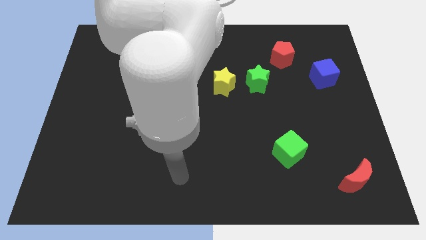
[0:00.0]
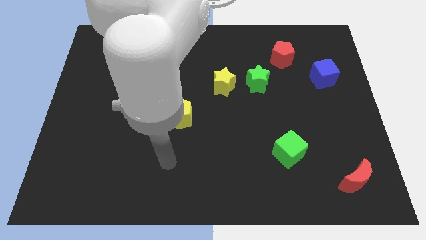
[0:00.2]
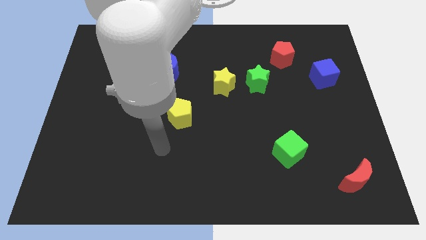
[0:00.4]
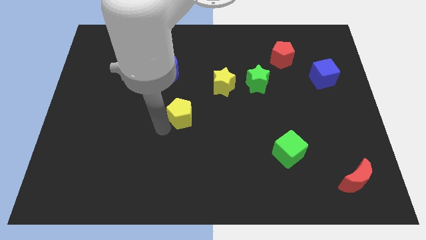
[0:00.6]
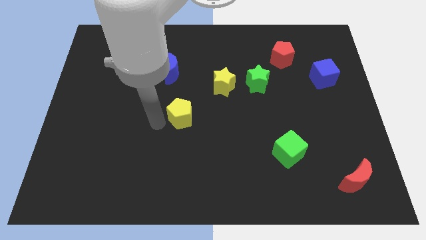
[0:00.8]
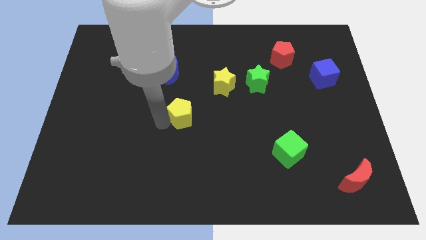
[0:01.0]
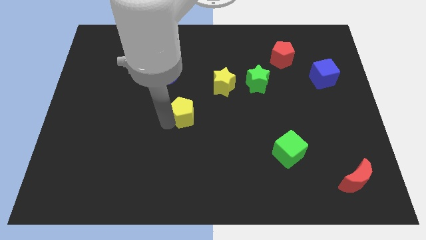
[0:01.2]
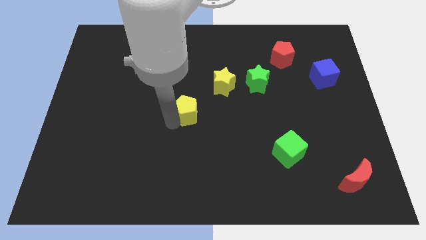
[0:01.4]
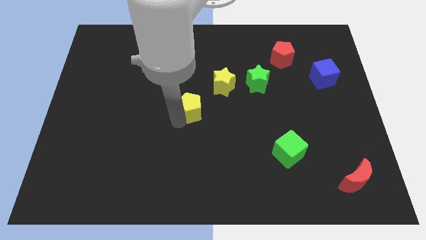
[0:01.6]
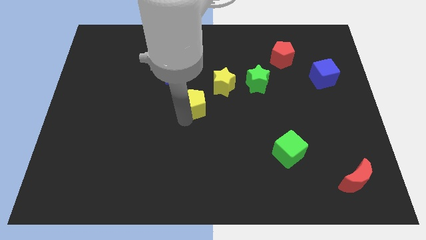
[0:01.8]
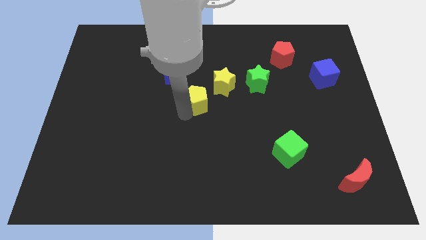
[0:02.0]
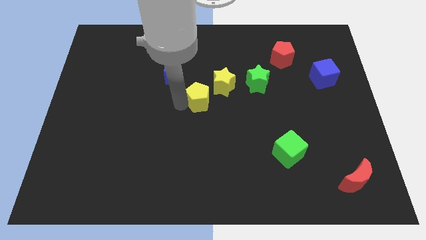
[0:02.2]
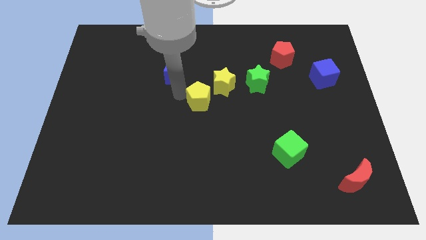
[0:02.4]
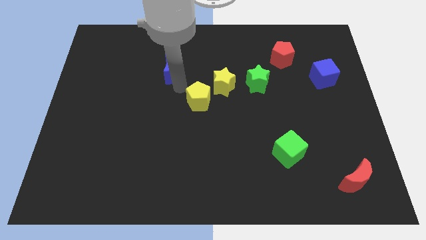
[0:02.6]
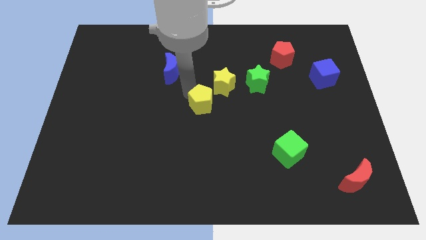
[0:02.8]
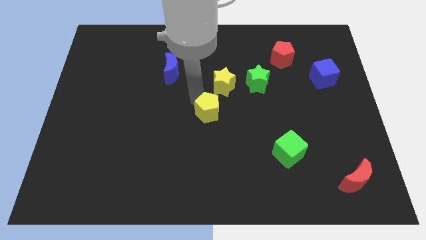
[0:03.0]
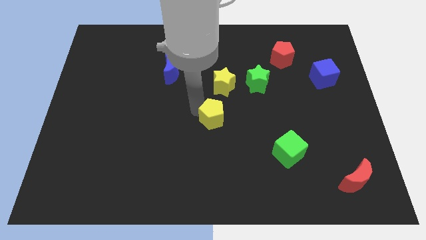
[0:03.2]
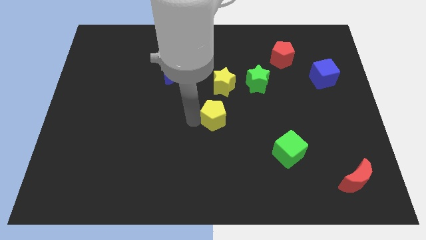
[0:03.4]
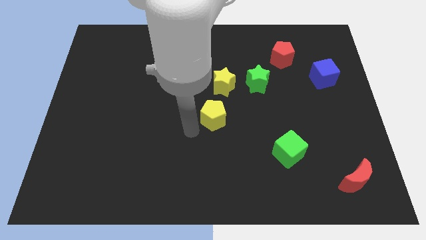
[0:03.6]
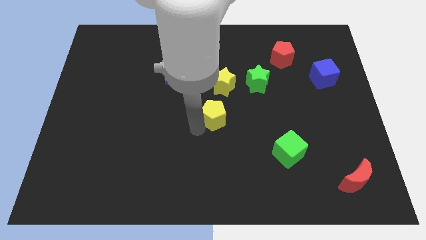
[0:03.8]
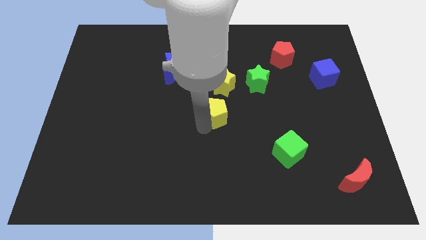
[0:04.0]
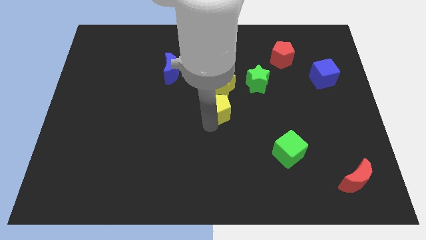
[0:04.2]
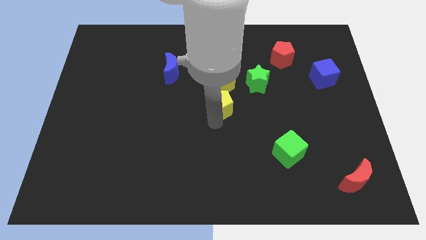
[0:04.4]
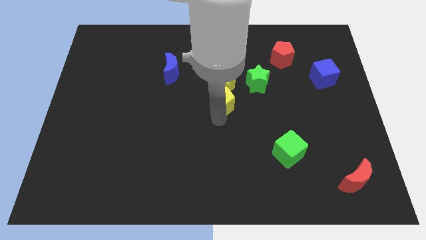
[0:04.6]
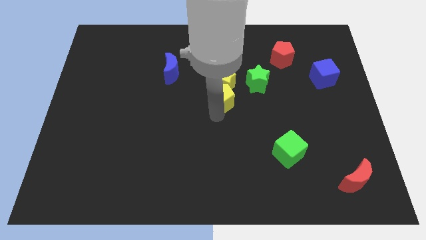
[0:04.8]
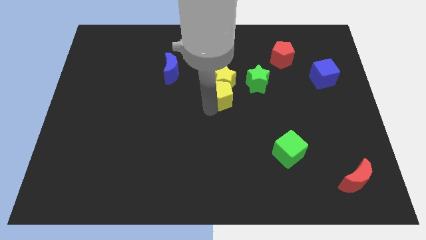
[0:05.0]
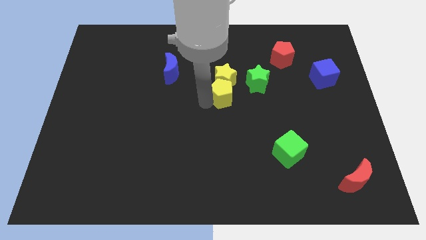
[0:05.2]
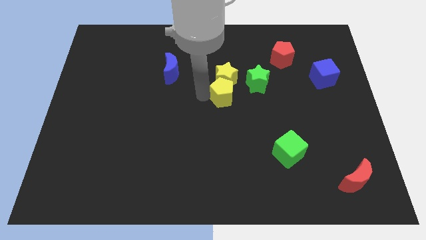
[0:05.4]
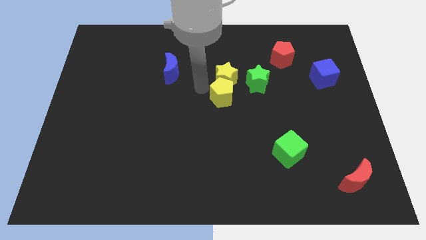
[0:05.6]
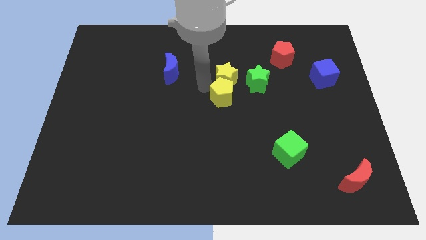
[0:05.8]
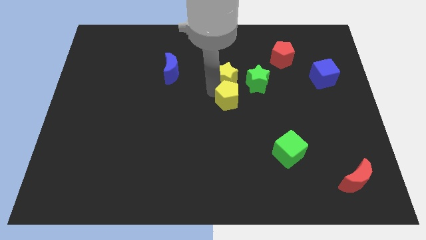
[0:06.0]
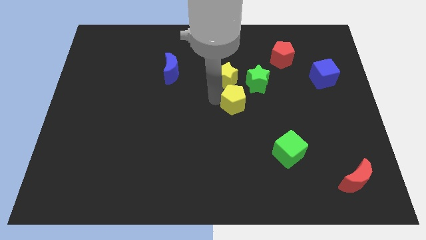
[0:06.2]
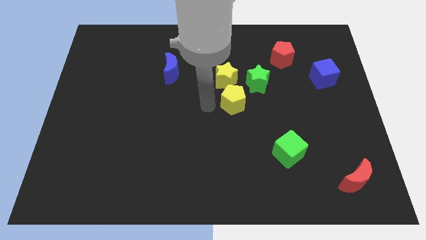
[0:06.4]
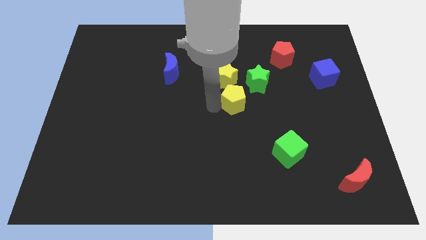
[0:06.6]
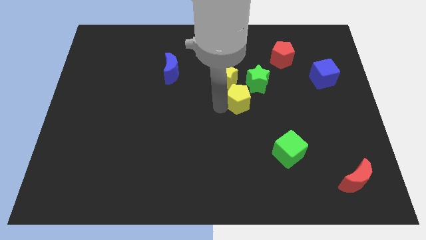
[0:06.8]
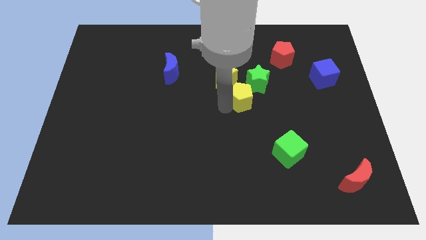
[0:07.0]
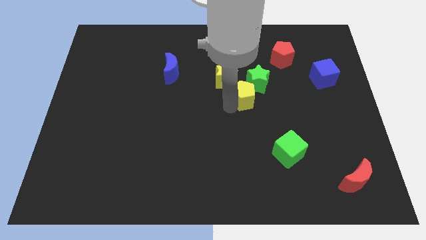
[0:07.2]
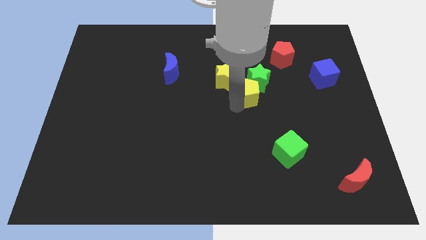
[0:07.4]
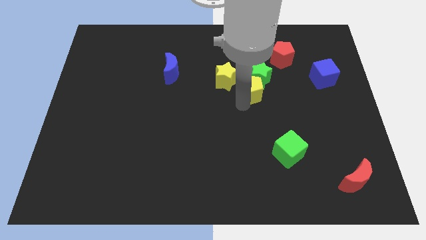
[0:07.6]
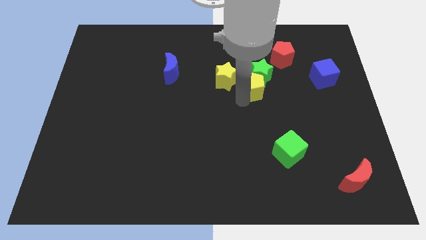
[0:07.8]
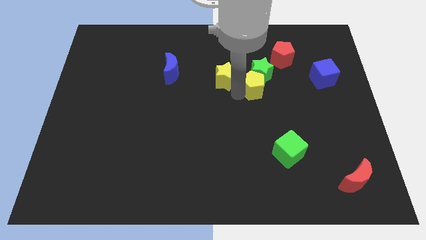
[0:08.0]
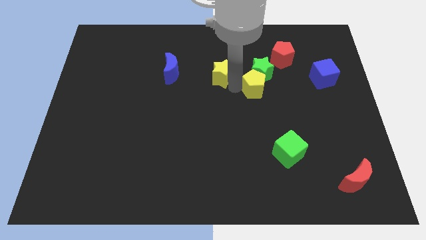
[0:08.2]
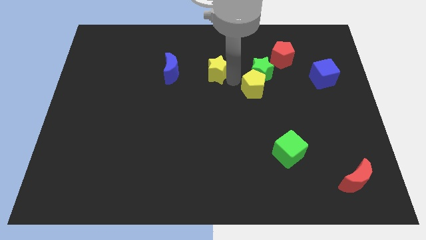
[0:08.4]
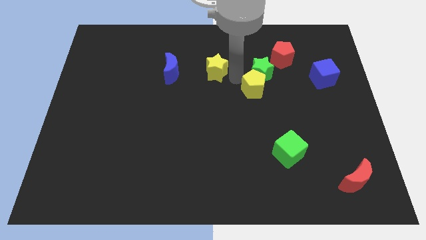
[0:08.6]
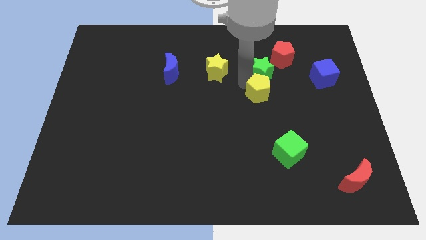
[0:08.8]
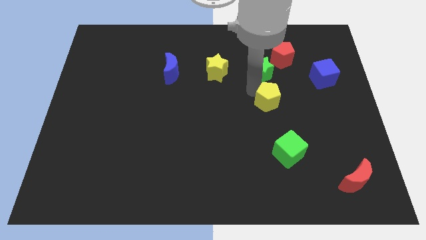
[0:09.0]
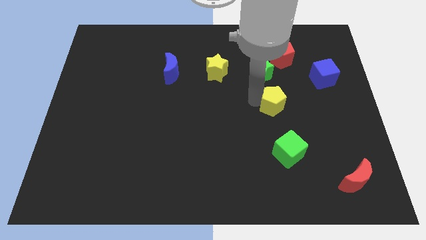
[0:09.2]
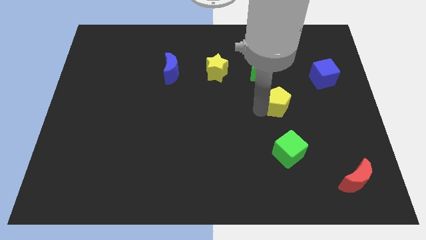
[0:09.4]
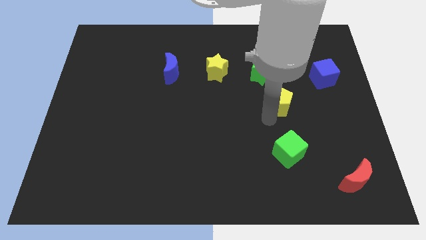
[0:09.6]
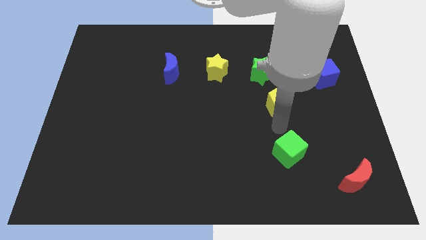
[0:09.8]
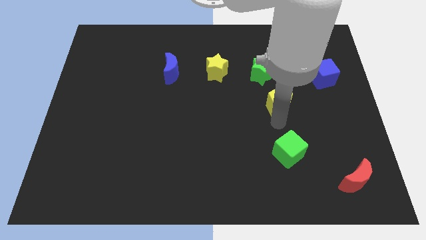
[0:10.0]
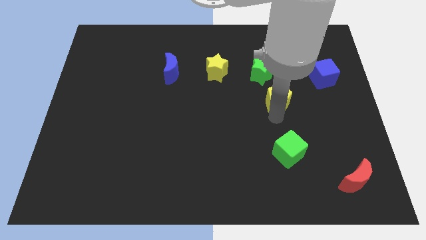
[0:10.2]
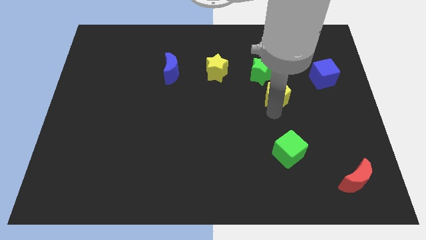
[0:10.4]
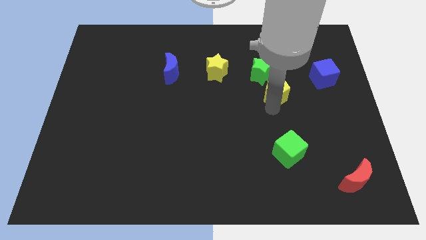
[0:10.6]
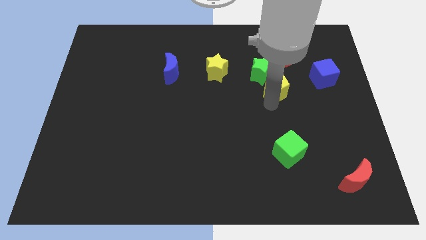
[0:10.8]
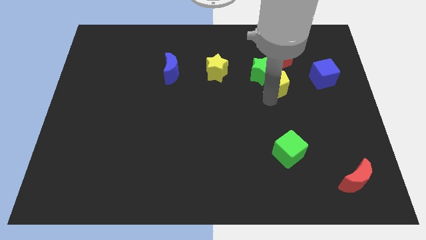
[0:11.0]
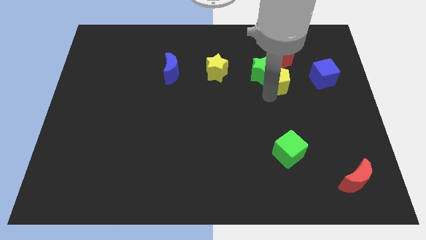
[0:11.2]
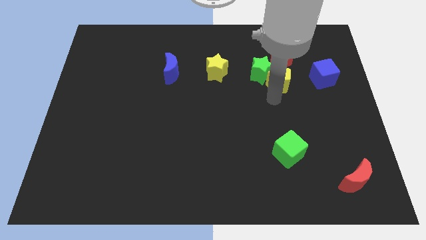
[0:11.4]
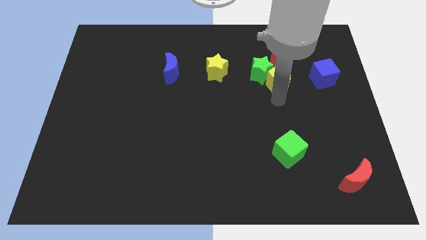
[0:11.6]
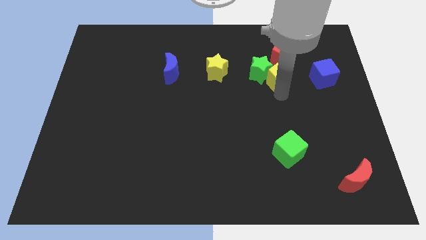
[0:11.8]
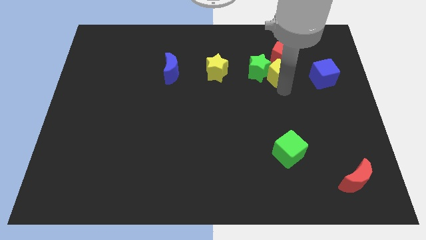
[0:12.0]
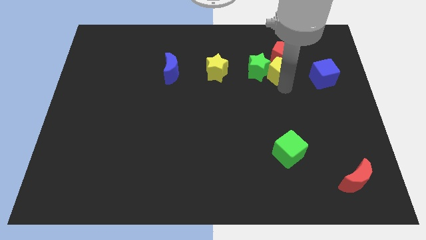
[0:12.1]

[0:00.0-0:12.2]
move the yellow pentagon to the red pentagon

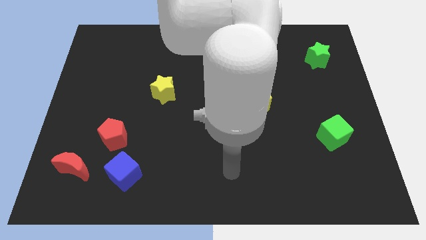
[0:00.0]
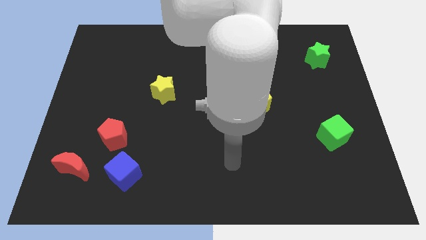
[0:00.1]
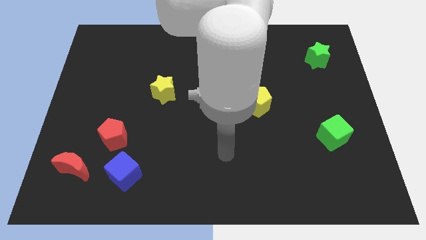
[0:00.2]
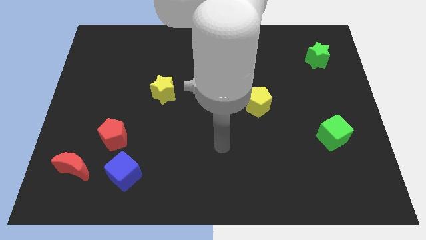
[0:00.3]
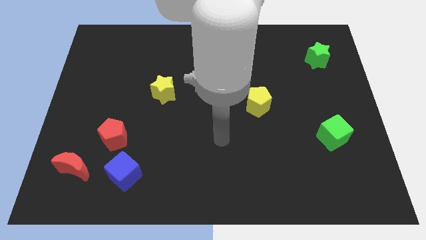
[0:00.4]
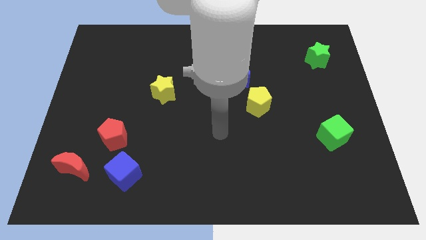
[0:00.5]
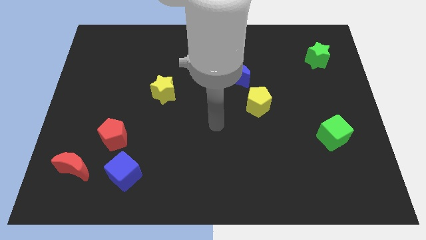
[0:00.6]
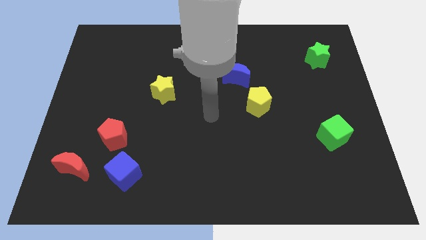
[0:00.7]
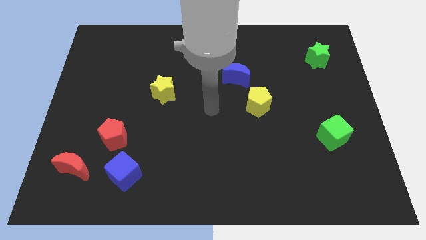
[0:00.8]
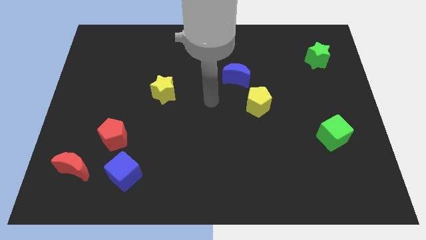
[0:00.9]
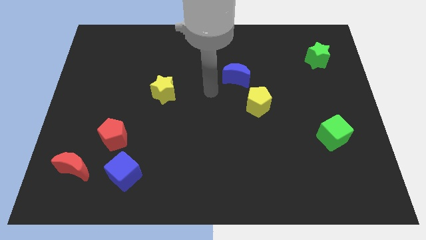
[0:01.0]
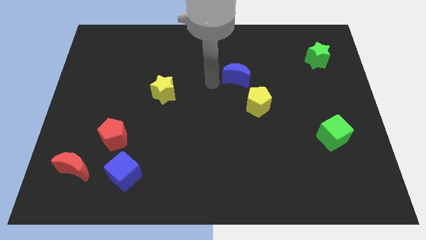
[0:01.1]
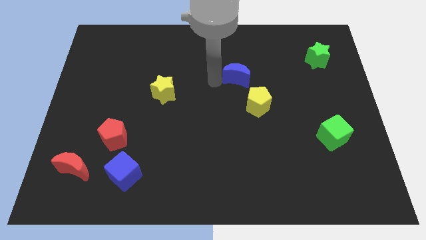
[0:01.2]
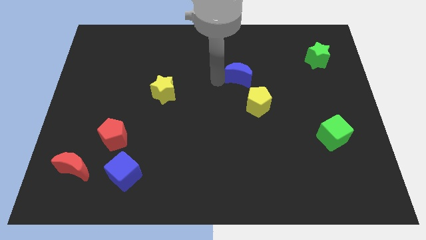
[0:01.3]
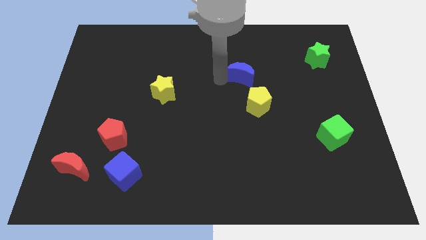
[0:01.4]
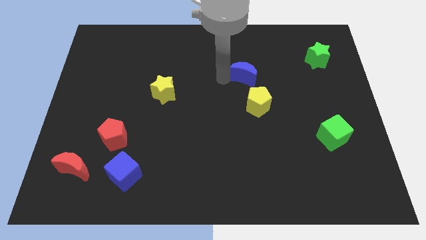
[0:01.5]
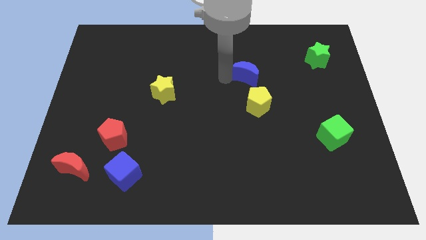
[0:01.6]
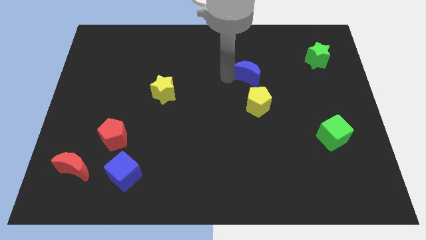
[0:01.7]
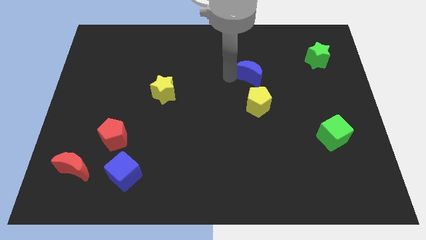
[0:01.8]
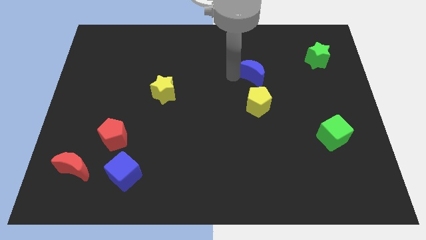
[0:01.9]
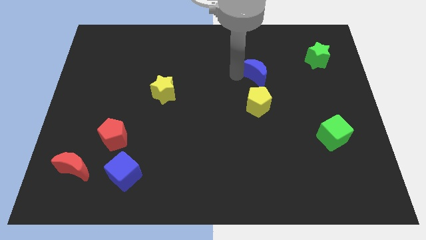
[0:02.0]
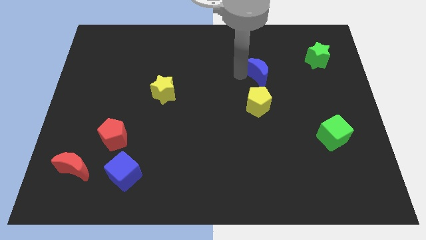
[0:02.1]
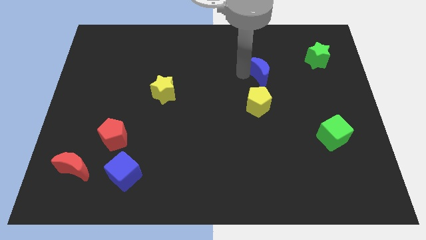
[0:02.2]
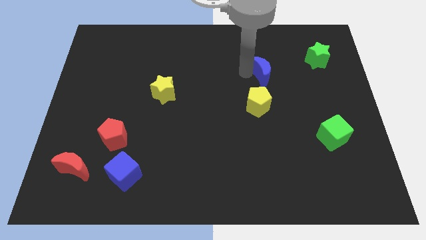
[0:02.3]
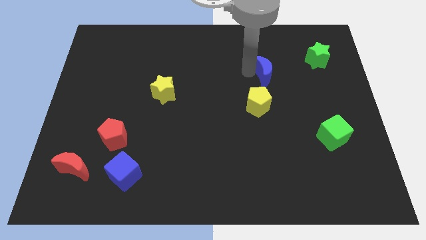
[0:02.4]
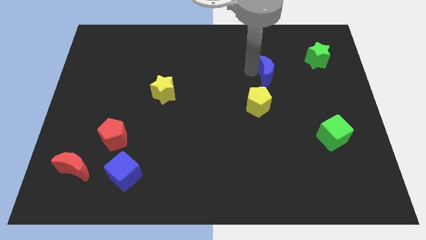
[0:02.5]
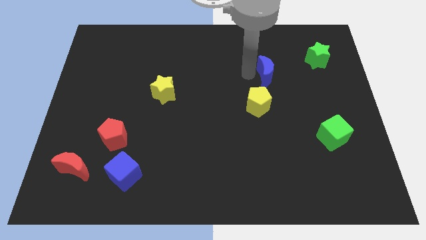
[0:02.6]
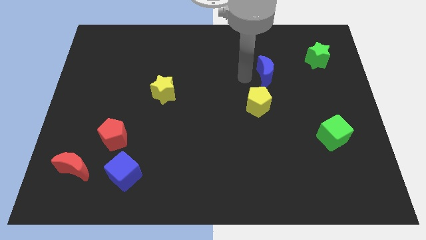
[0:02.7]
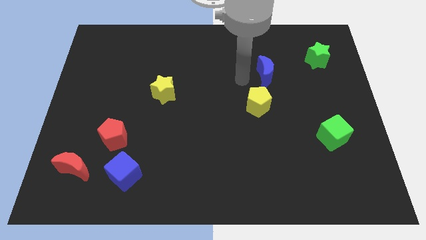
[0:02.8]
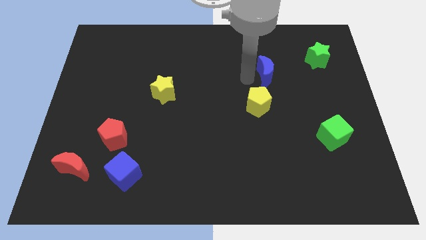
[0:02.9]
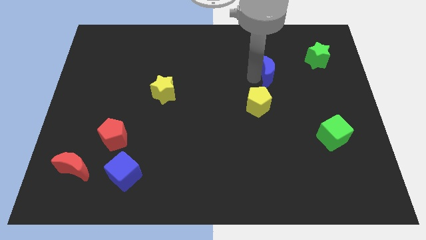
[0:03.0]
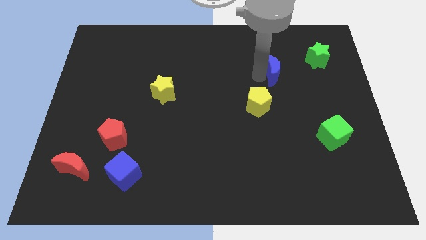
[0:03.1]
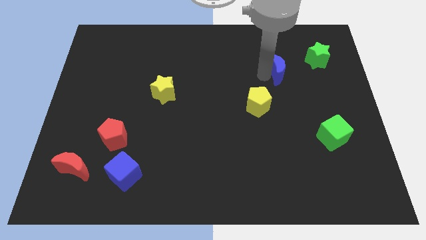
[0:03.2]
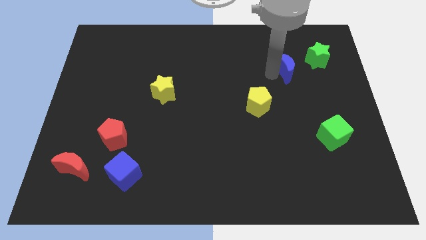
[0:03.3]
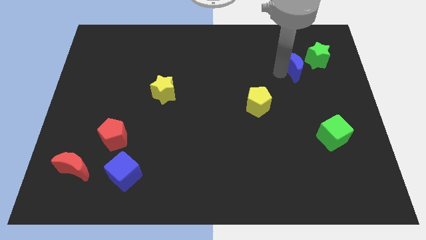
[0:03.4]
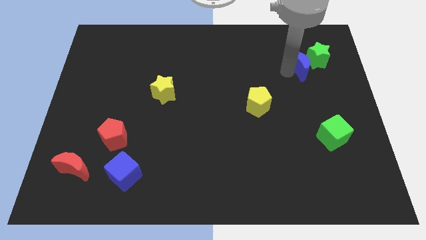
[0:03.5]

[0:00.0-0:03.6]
put the blue moon towards the green star
